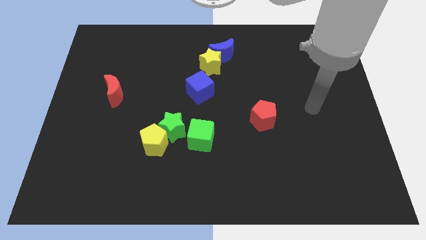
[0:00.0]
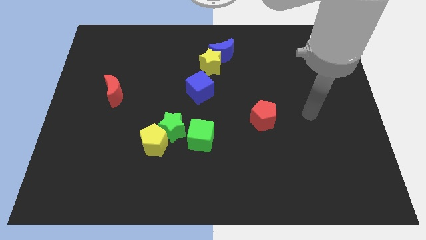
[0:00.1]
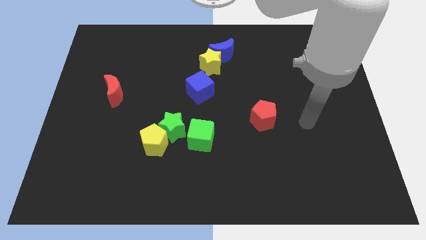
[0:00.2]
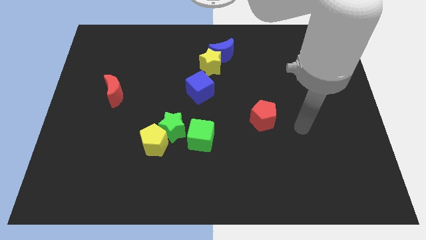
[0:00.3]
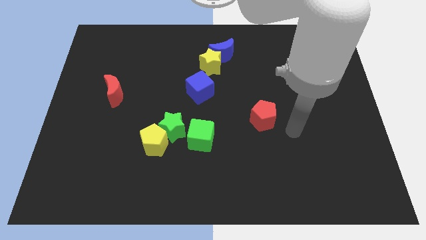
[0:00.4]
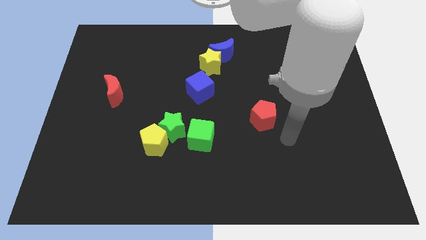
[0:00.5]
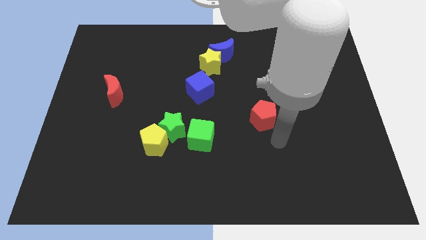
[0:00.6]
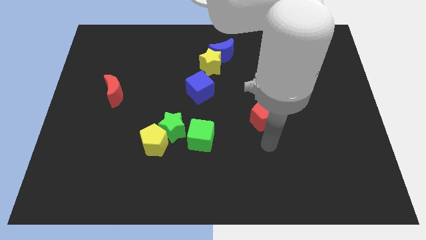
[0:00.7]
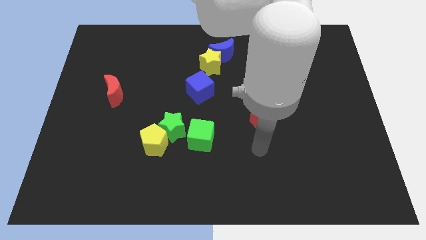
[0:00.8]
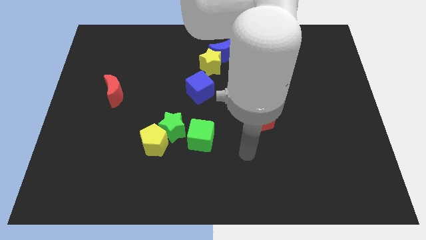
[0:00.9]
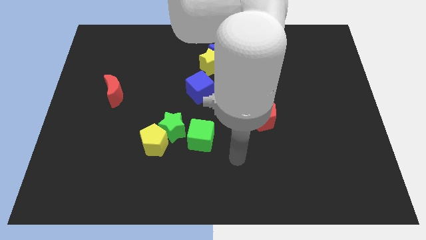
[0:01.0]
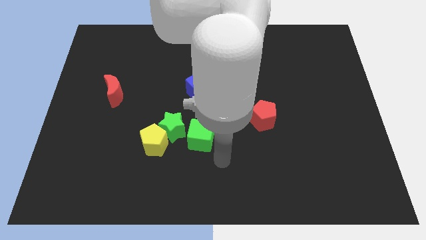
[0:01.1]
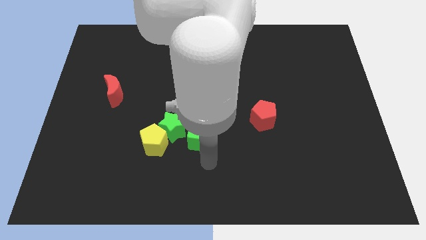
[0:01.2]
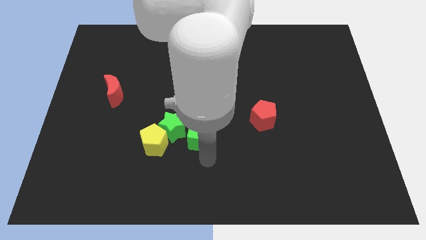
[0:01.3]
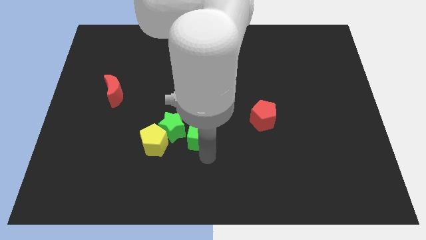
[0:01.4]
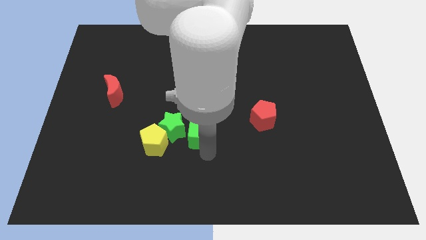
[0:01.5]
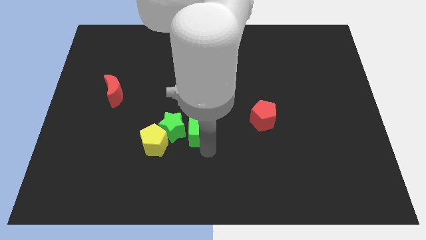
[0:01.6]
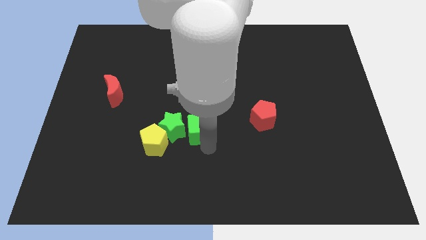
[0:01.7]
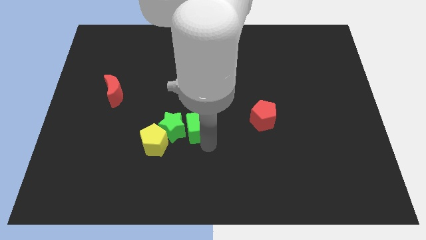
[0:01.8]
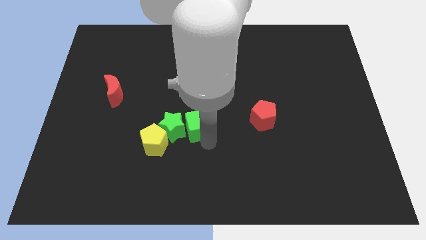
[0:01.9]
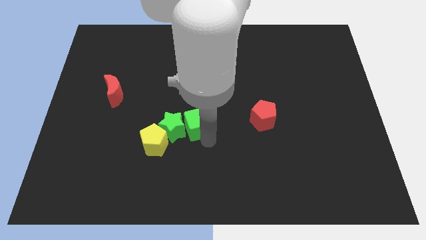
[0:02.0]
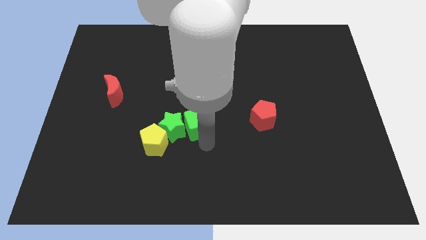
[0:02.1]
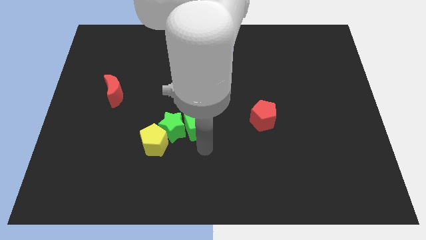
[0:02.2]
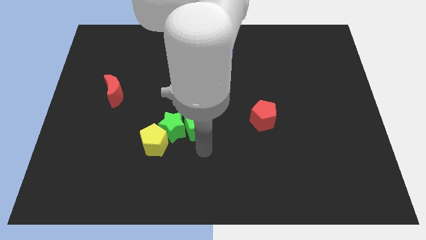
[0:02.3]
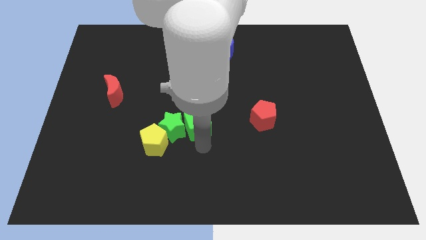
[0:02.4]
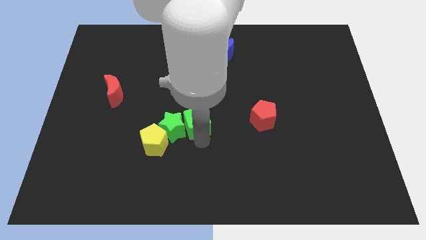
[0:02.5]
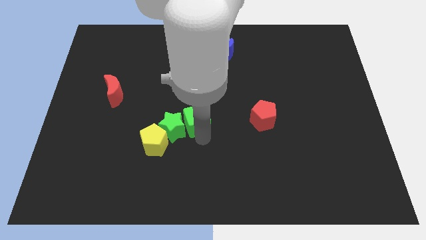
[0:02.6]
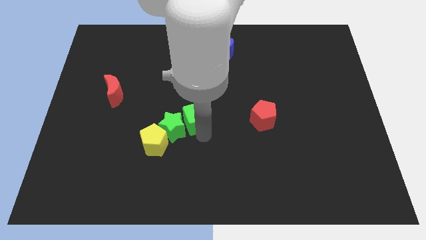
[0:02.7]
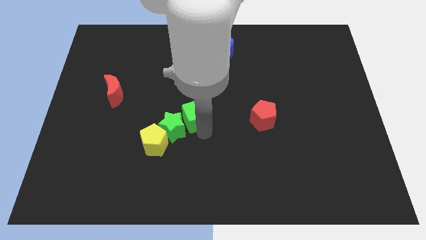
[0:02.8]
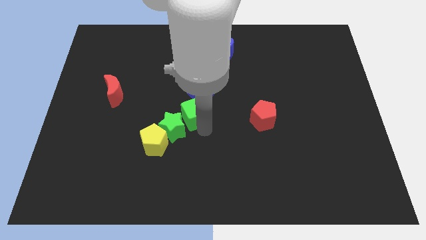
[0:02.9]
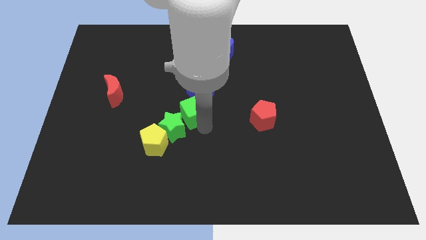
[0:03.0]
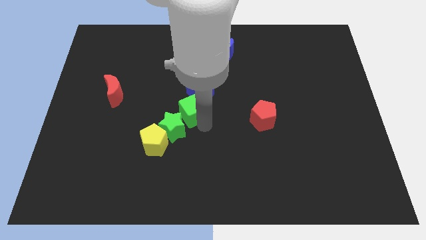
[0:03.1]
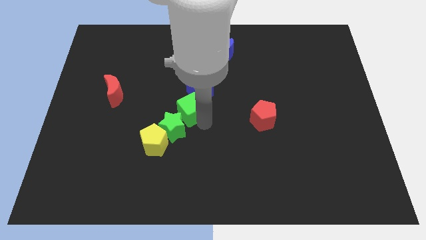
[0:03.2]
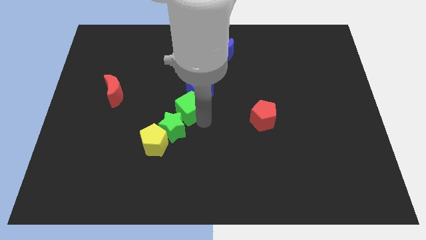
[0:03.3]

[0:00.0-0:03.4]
move the green cube upwards and left diagonally a little bit

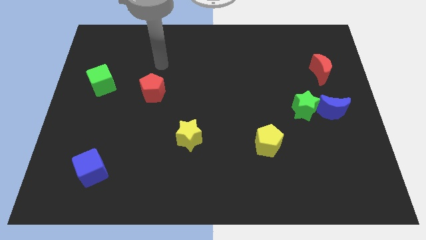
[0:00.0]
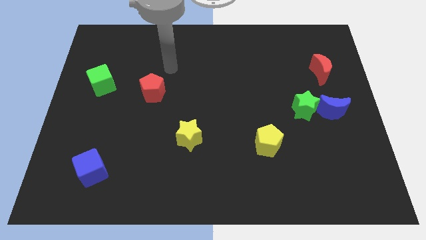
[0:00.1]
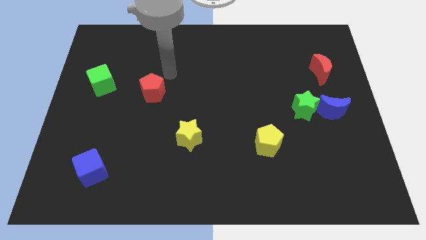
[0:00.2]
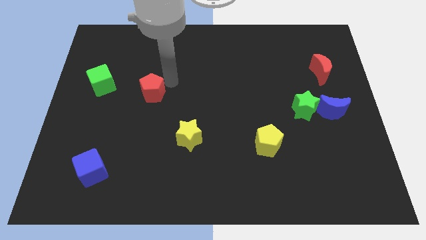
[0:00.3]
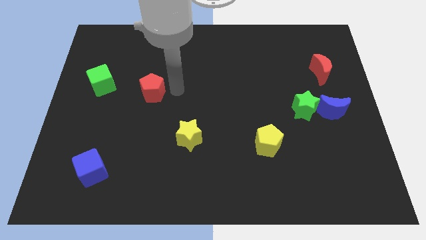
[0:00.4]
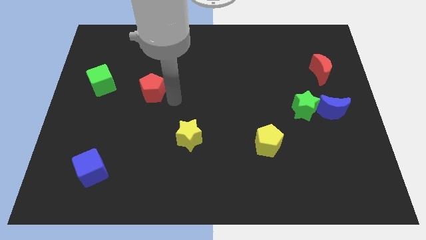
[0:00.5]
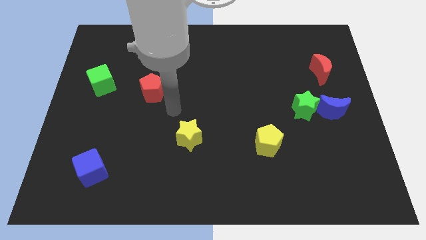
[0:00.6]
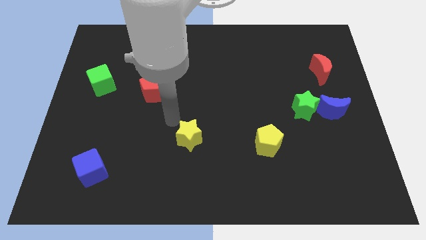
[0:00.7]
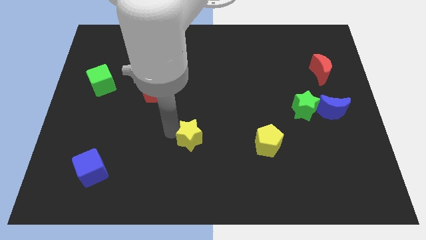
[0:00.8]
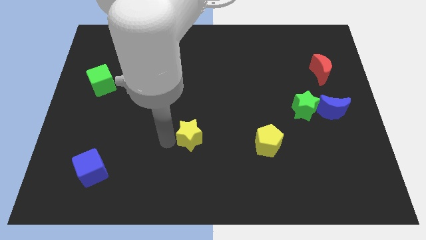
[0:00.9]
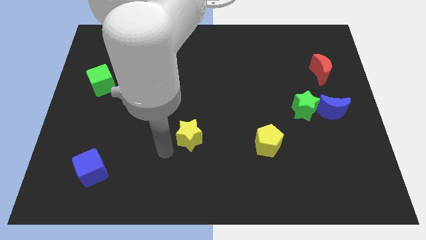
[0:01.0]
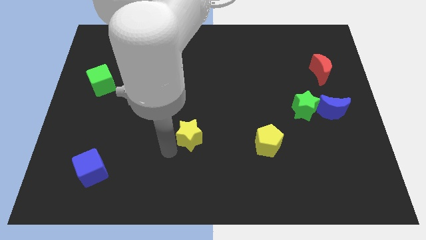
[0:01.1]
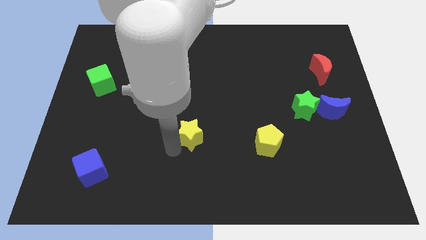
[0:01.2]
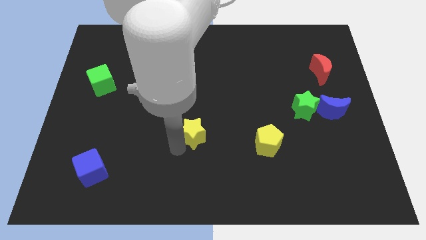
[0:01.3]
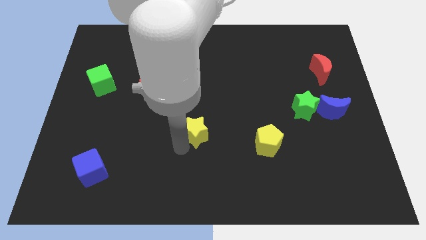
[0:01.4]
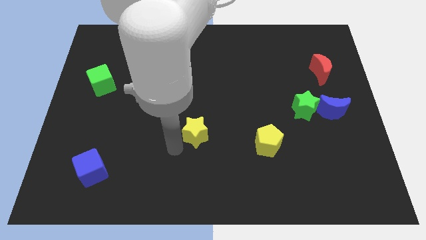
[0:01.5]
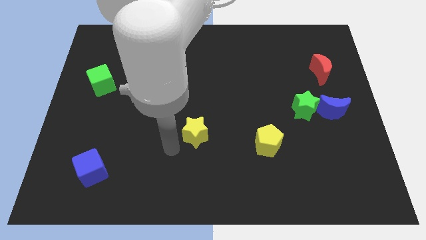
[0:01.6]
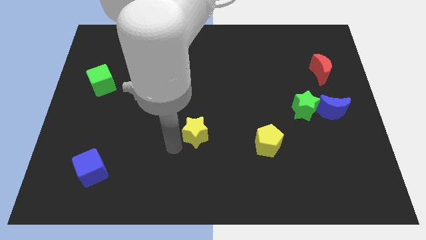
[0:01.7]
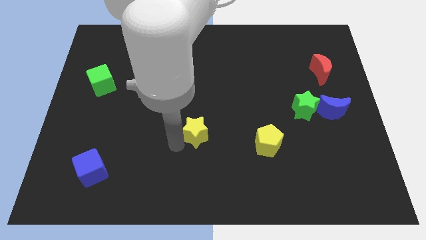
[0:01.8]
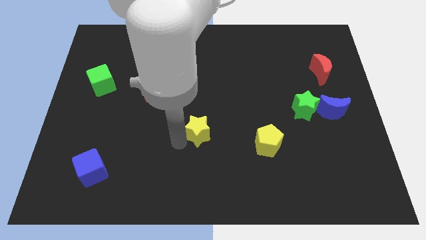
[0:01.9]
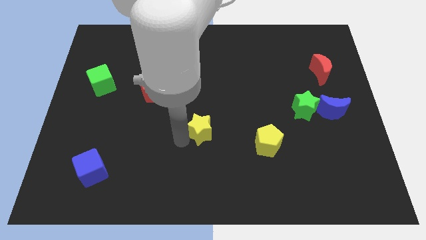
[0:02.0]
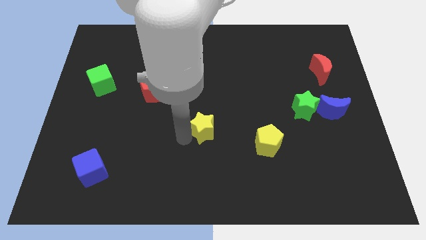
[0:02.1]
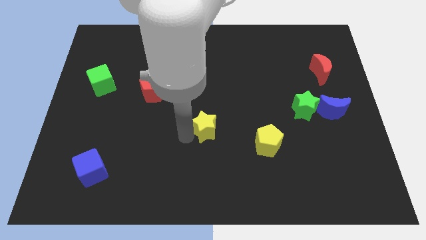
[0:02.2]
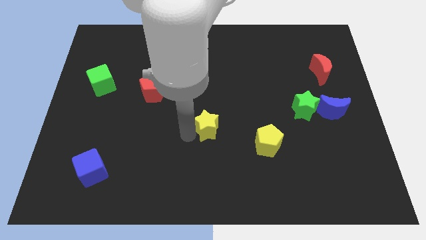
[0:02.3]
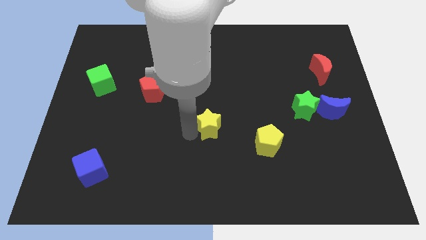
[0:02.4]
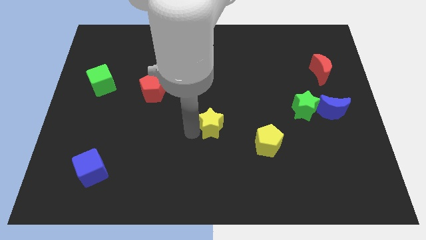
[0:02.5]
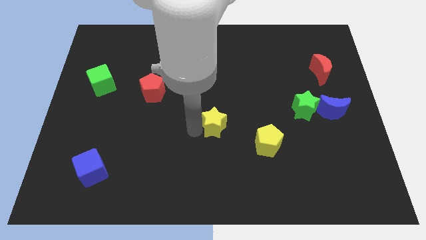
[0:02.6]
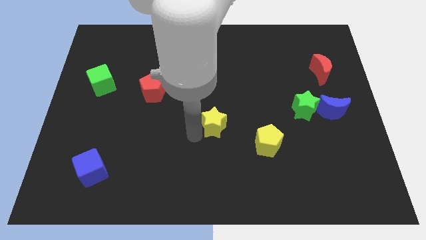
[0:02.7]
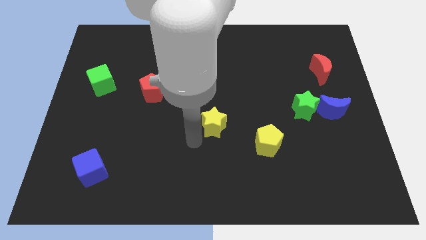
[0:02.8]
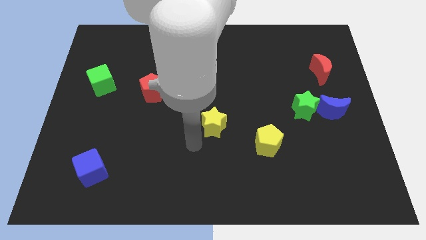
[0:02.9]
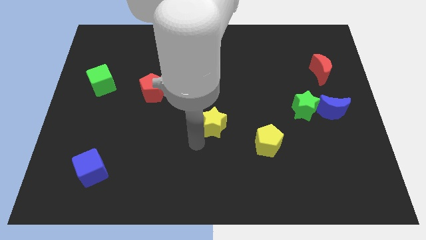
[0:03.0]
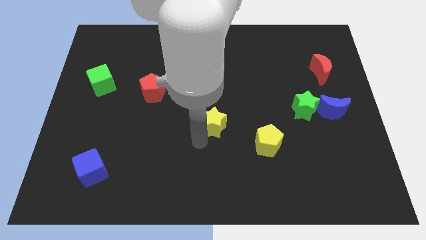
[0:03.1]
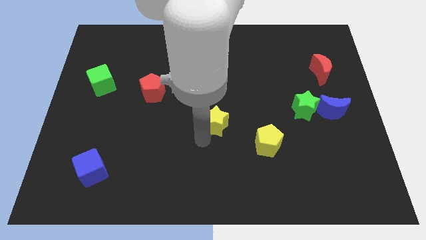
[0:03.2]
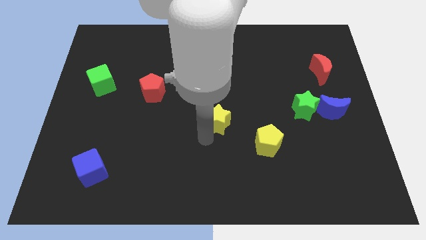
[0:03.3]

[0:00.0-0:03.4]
slightly move the yellow star up and to the right

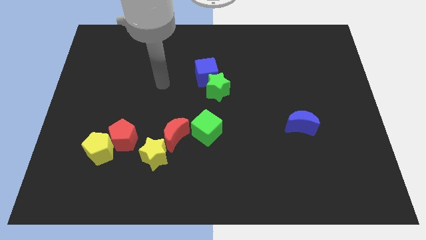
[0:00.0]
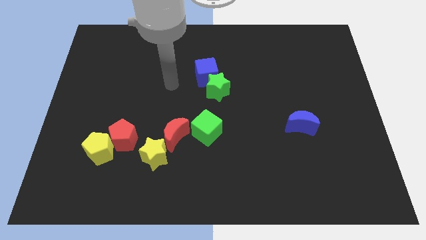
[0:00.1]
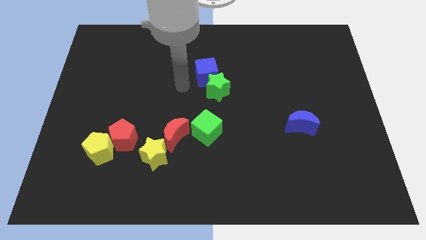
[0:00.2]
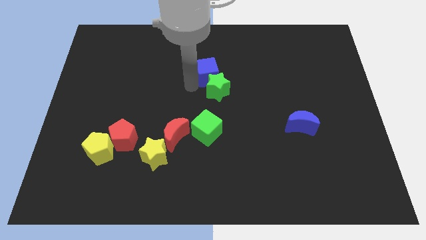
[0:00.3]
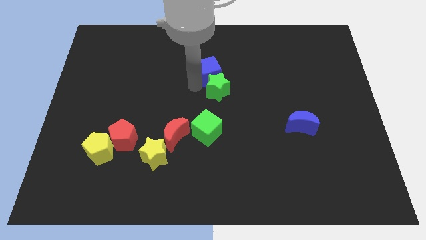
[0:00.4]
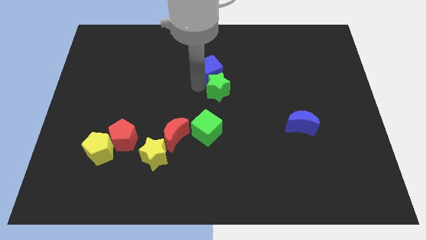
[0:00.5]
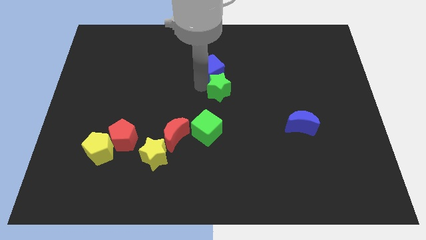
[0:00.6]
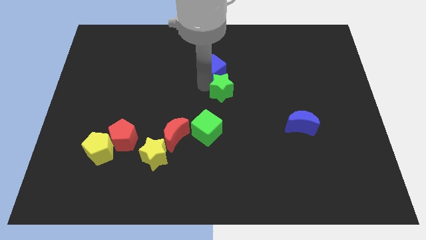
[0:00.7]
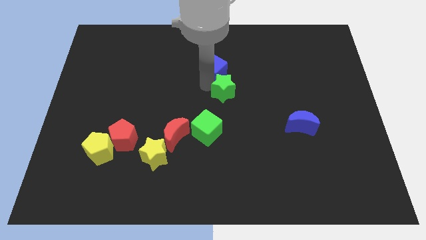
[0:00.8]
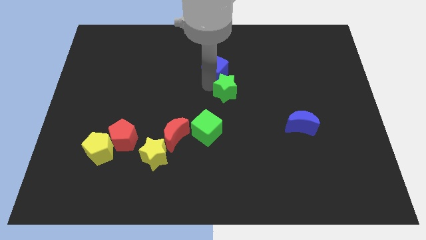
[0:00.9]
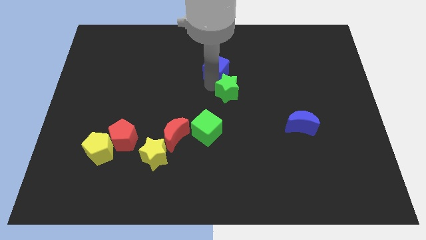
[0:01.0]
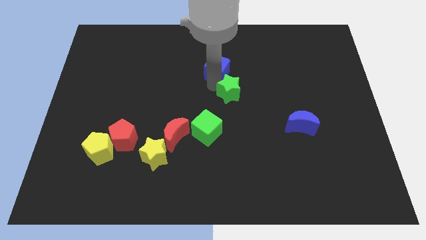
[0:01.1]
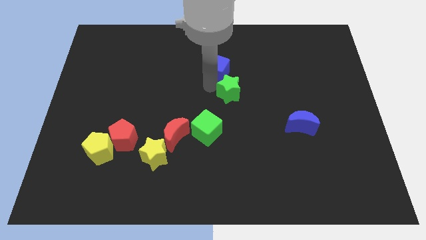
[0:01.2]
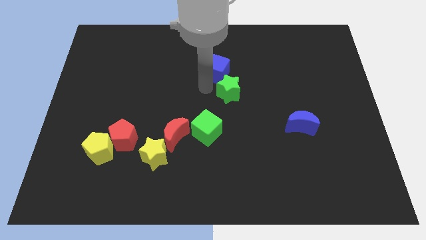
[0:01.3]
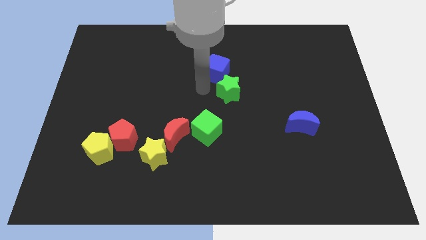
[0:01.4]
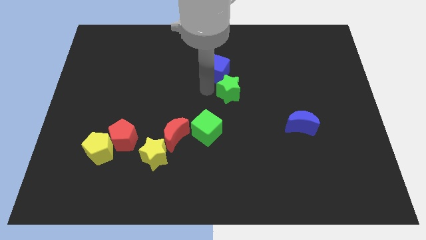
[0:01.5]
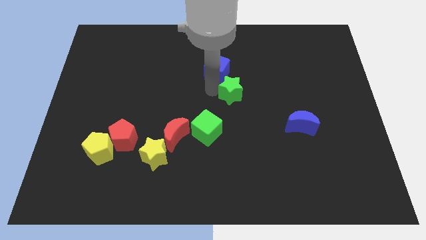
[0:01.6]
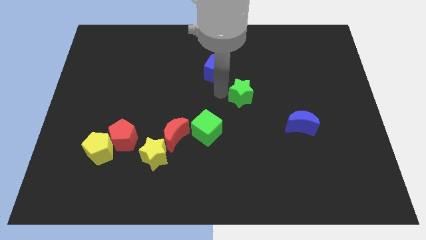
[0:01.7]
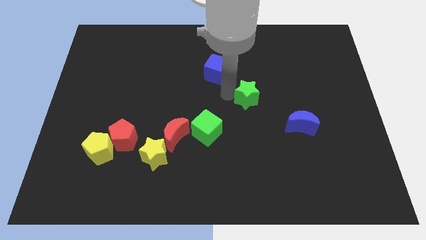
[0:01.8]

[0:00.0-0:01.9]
push the green star right somewhat

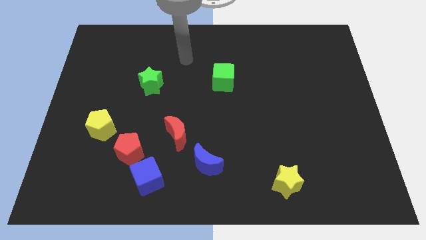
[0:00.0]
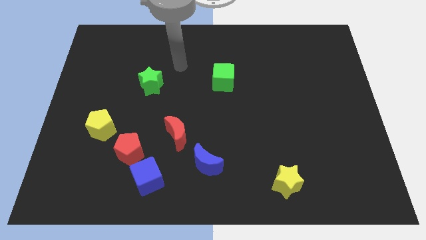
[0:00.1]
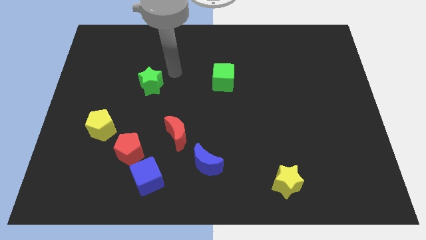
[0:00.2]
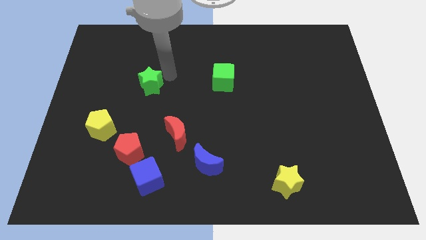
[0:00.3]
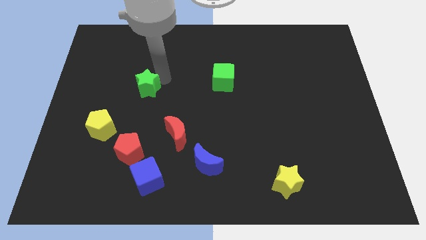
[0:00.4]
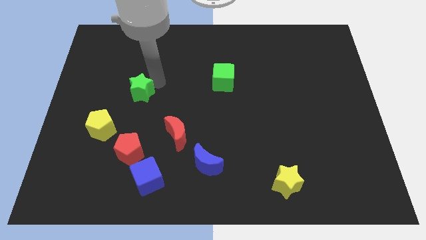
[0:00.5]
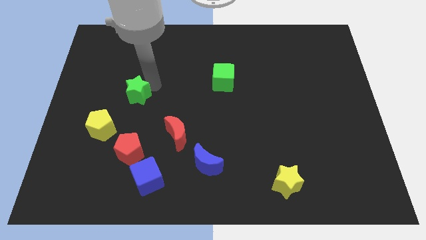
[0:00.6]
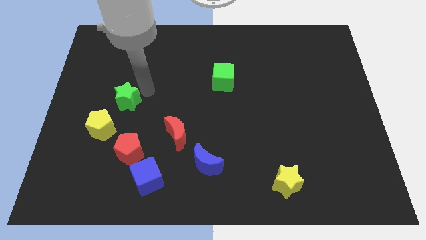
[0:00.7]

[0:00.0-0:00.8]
move the green star downwards and to the left a bit
